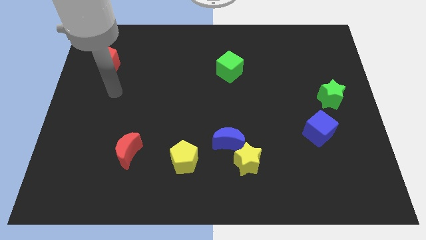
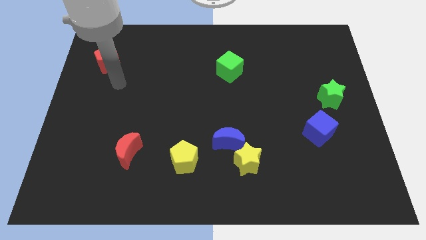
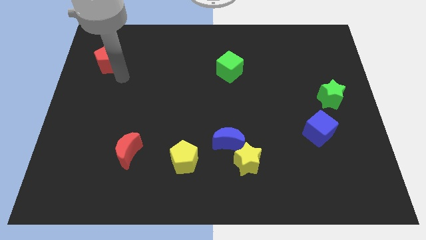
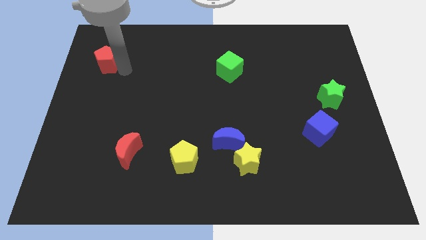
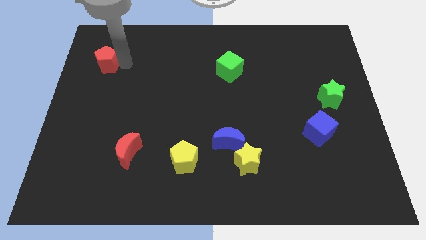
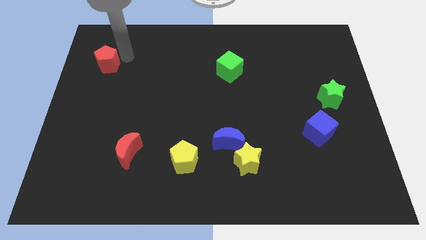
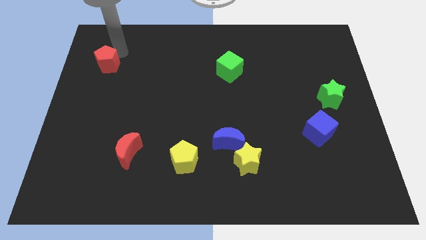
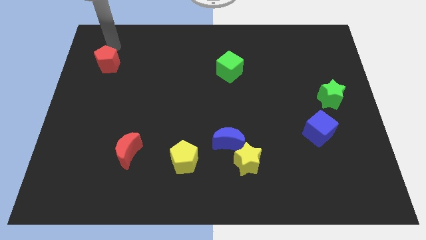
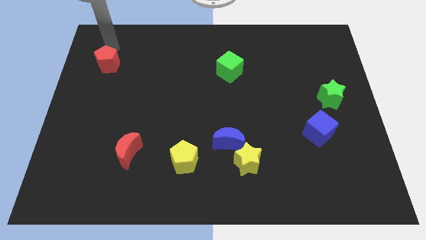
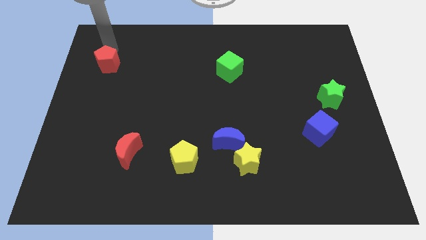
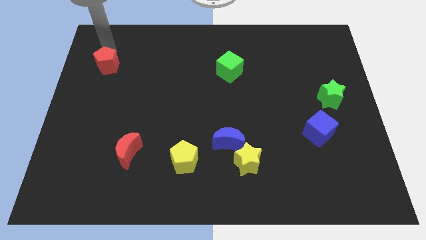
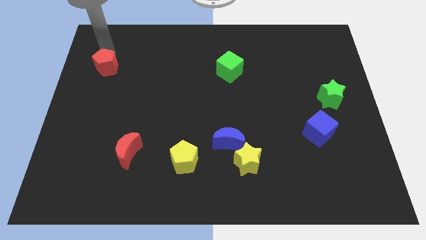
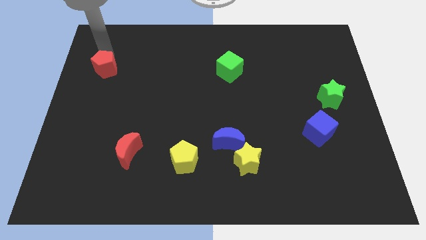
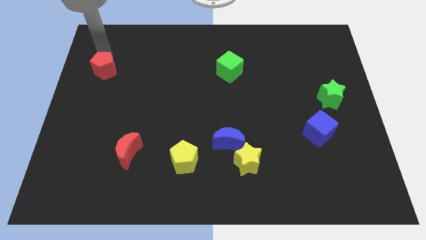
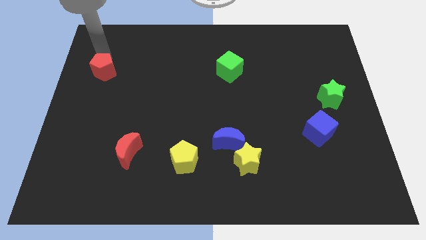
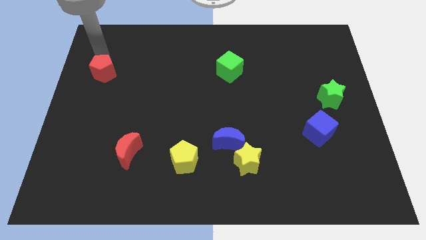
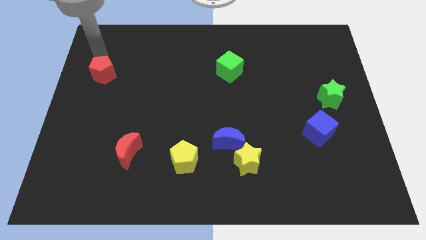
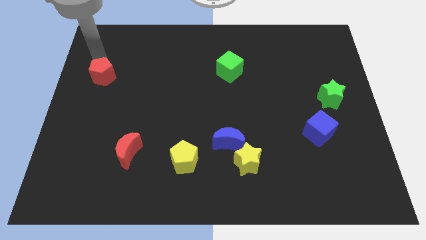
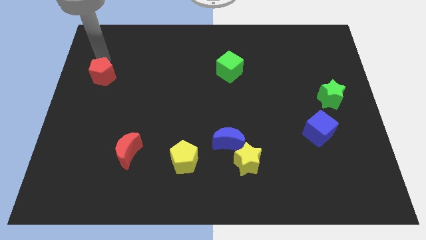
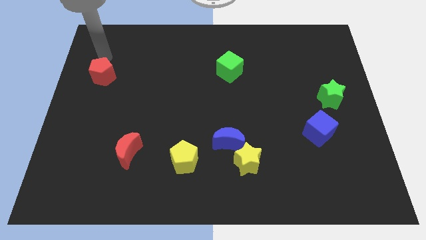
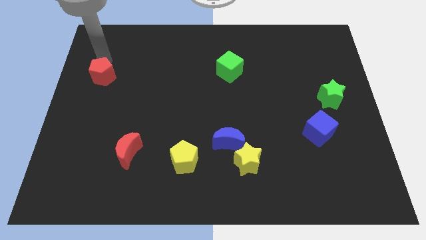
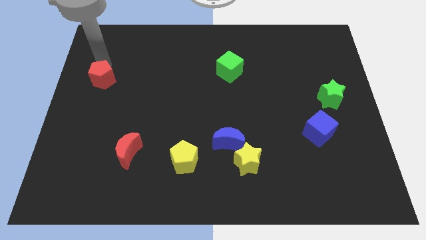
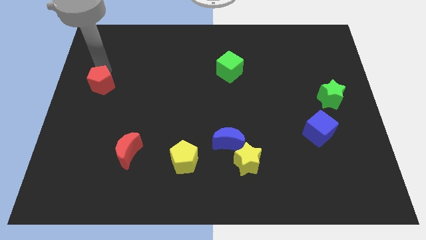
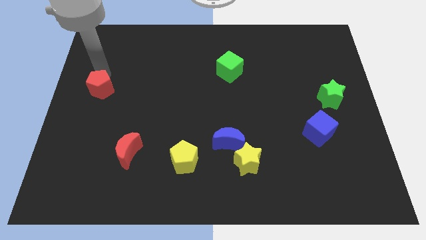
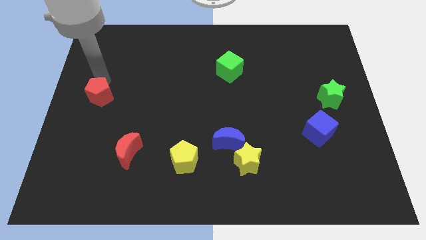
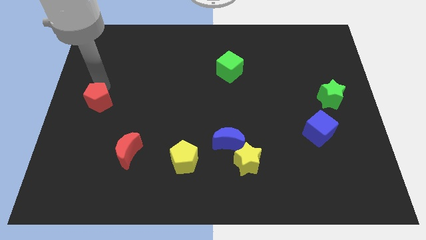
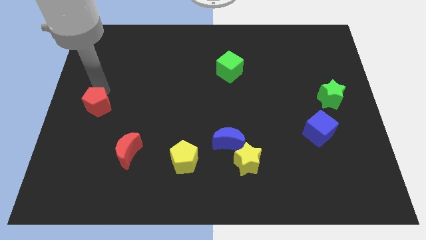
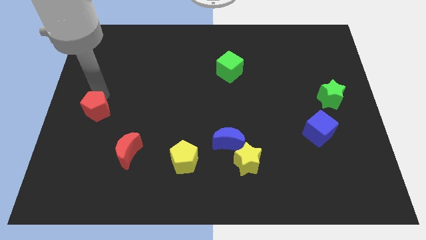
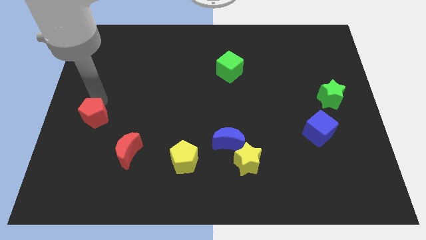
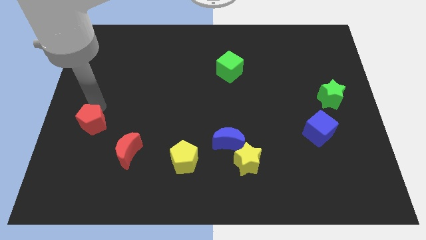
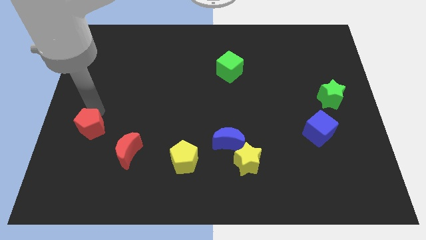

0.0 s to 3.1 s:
slide the red pentagon down

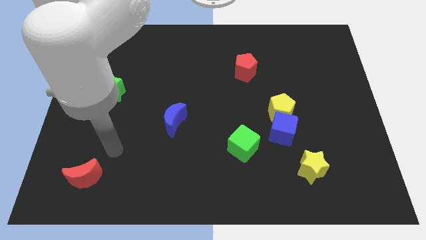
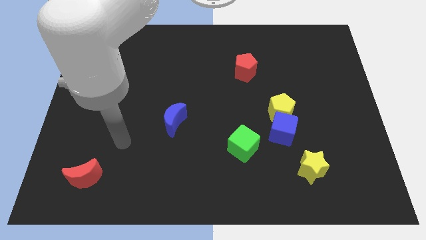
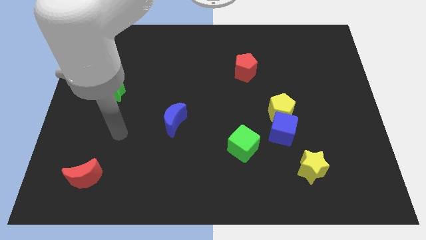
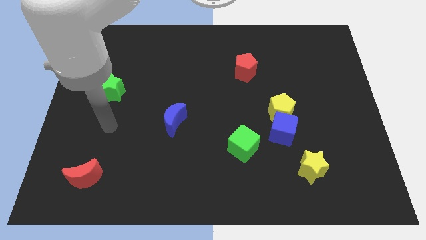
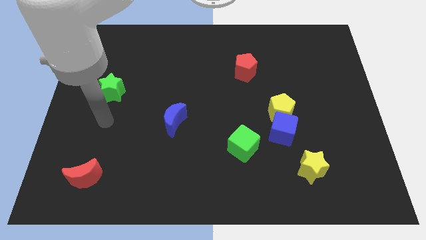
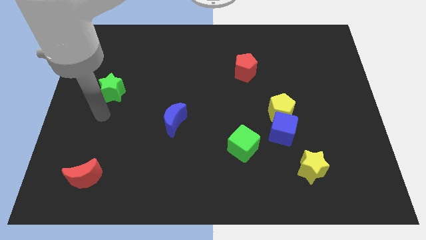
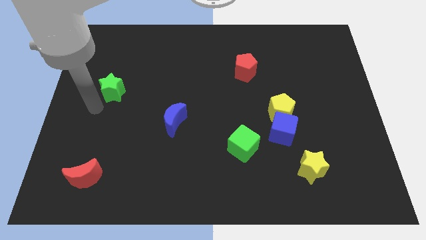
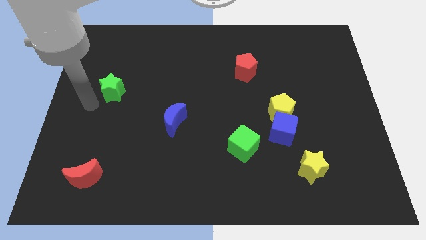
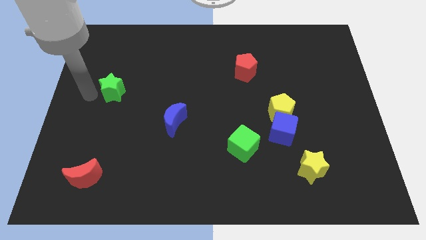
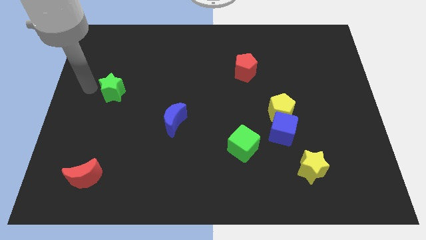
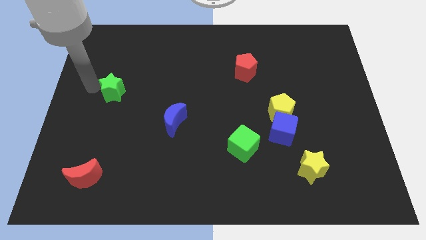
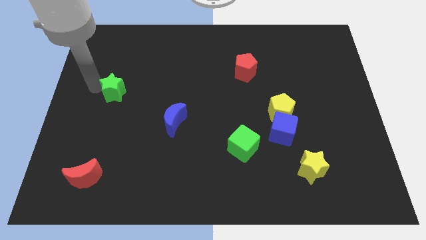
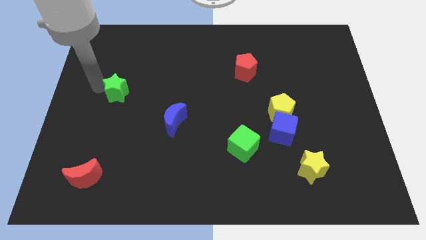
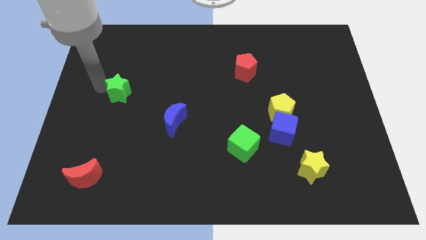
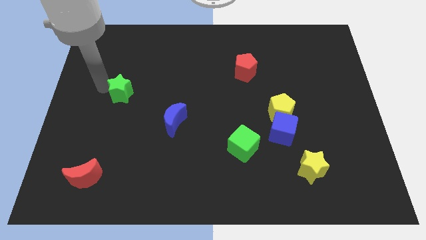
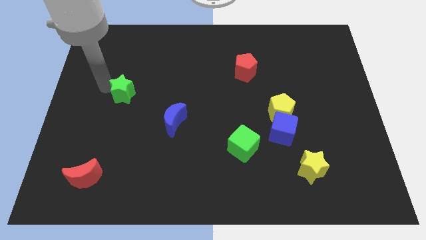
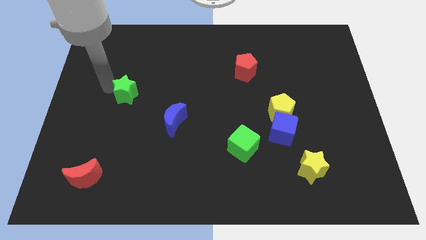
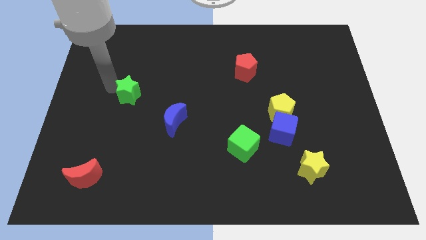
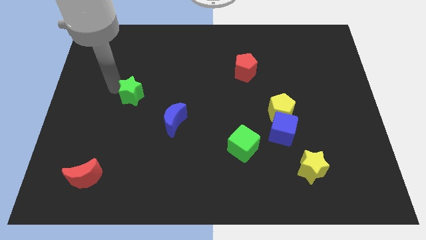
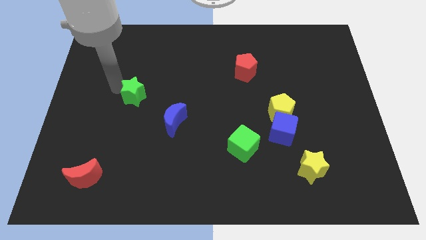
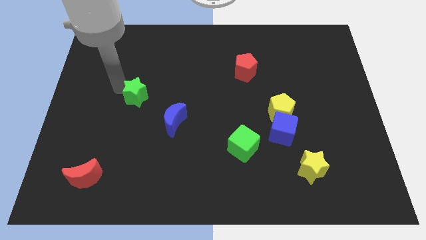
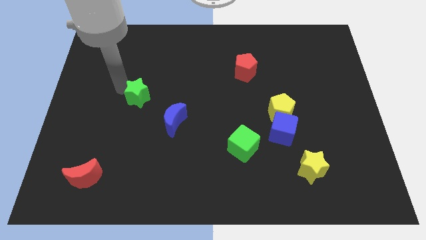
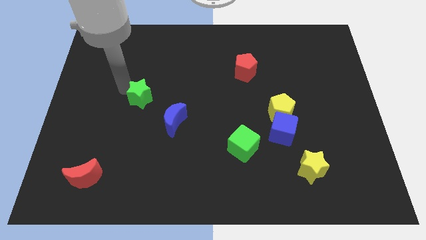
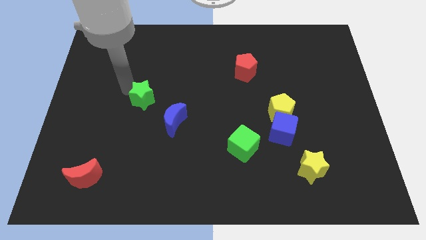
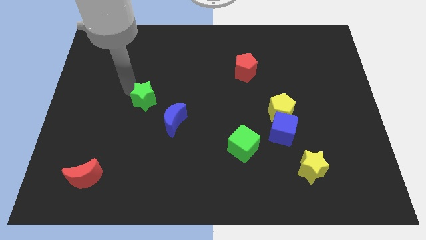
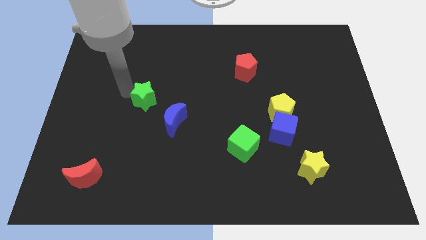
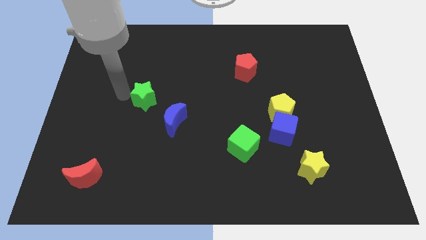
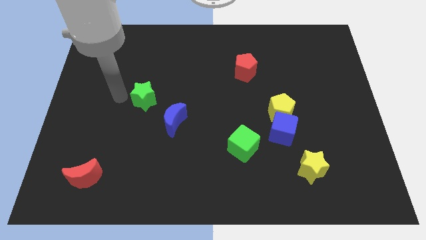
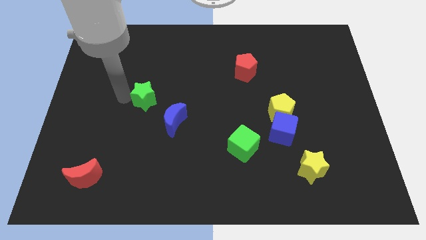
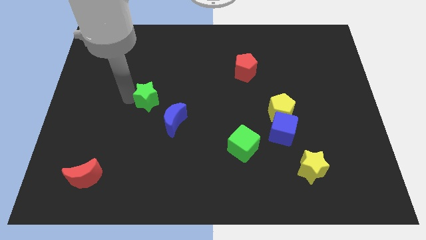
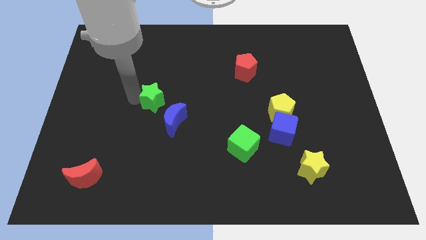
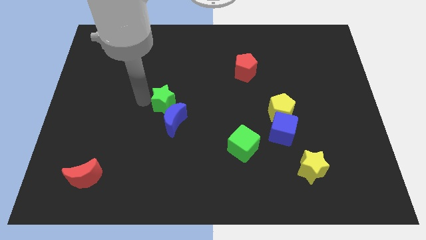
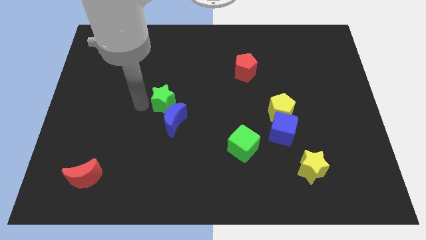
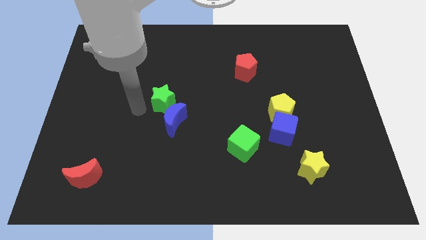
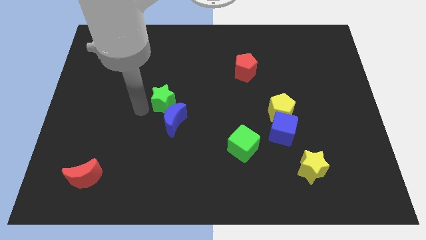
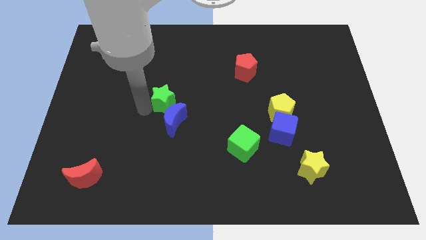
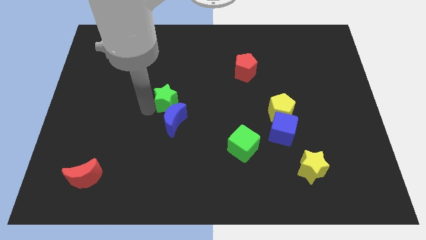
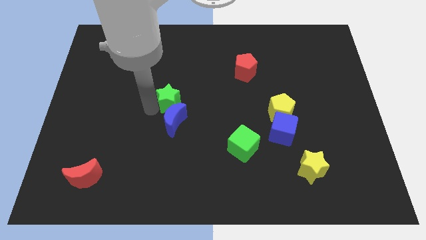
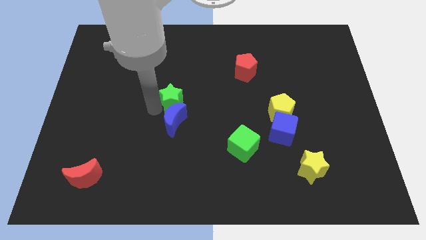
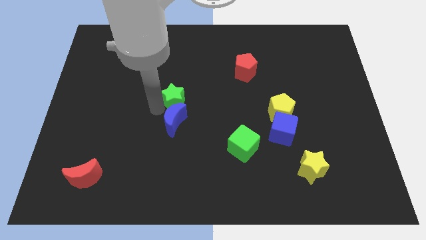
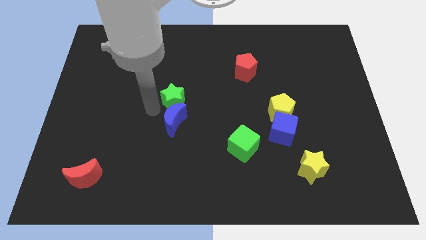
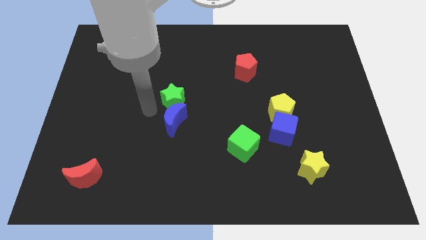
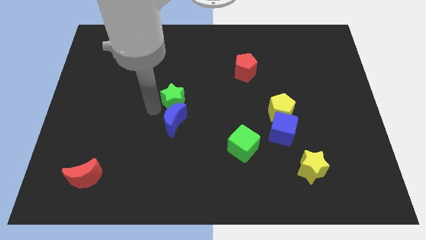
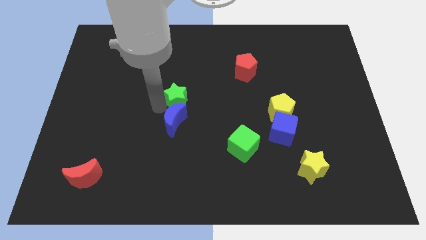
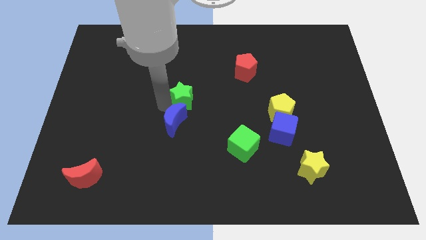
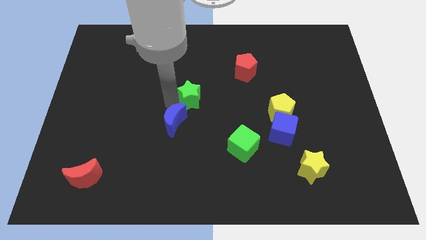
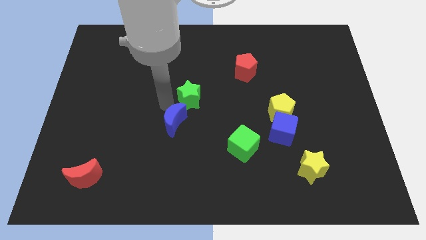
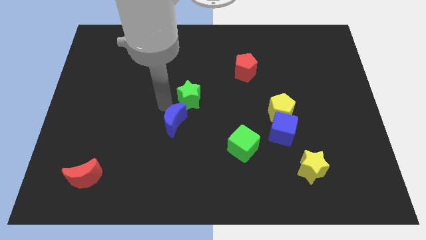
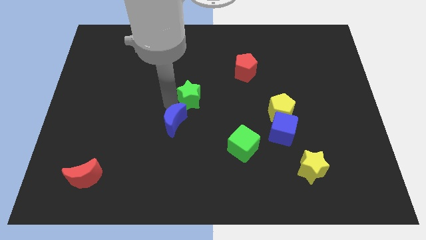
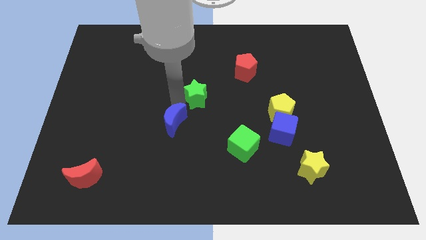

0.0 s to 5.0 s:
push the green star to the right
